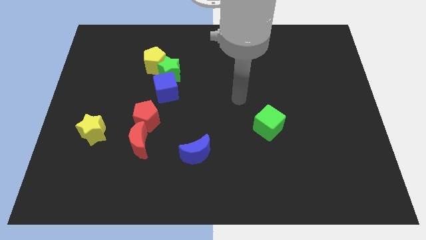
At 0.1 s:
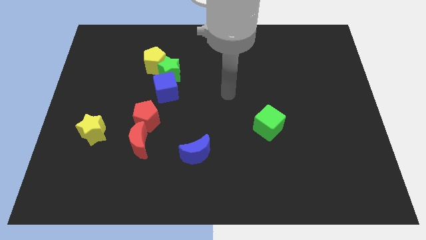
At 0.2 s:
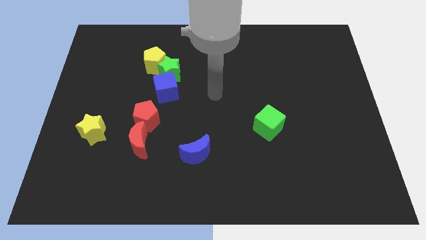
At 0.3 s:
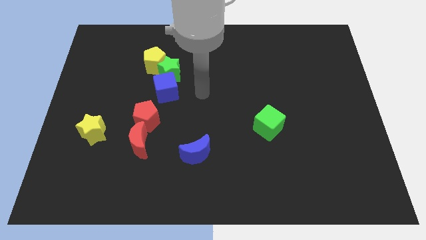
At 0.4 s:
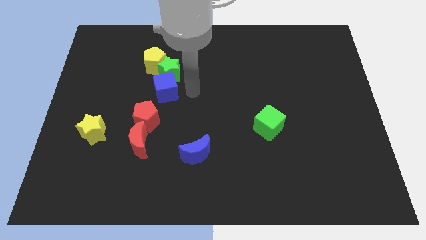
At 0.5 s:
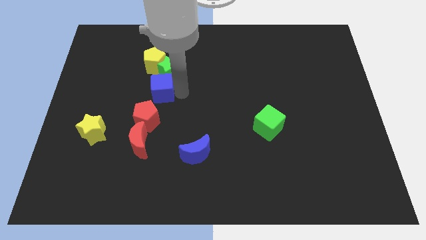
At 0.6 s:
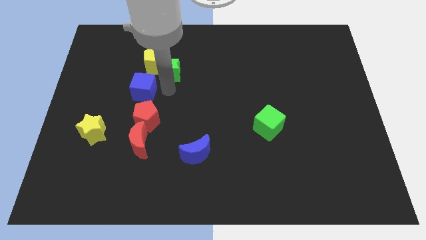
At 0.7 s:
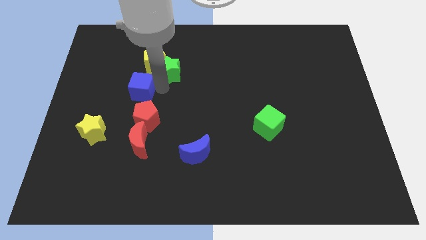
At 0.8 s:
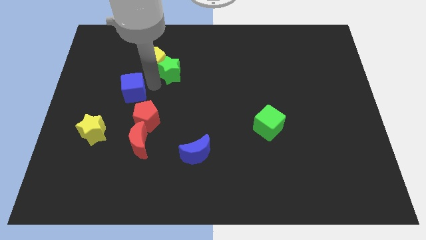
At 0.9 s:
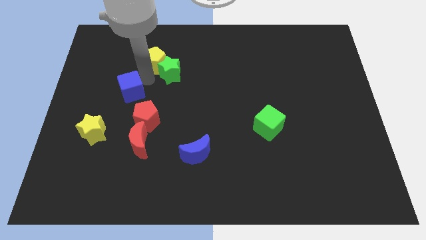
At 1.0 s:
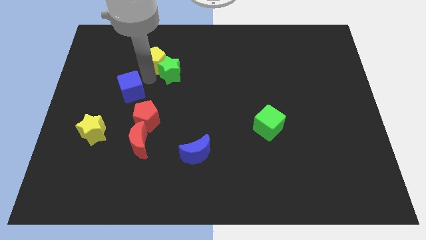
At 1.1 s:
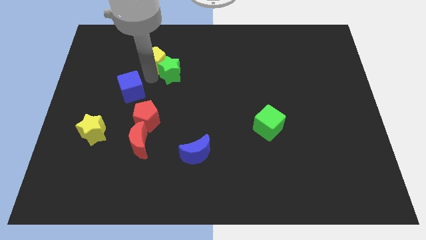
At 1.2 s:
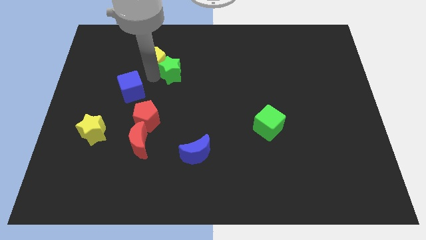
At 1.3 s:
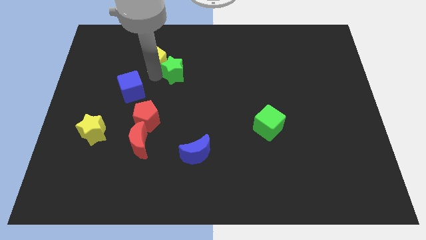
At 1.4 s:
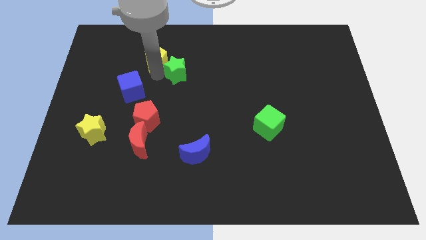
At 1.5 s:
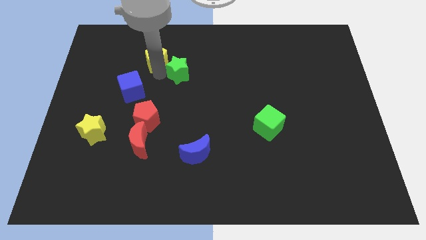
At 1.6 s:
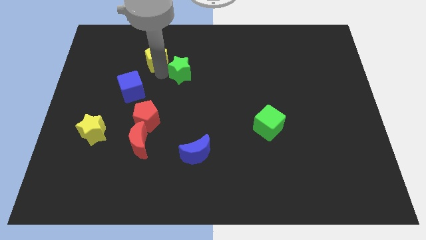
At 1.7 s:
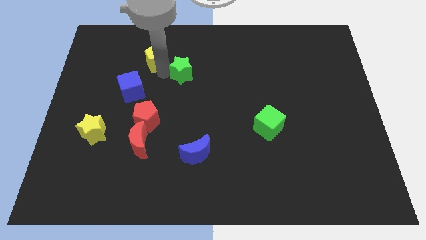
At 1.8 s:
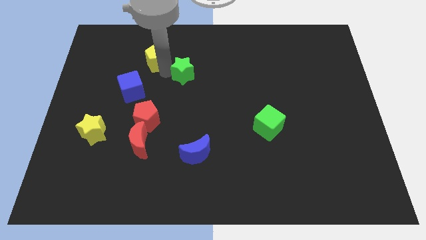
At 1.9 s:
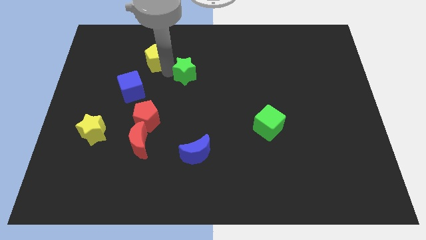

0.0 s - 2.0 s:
move the green star away from the yellow pentagon and blue cube

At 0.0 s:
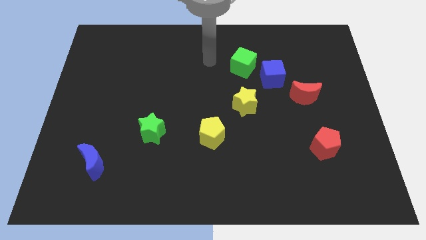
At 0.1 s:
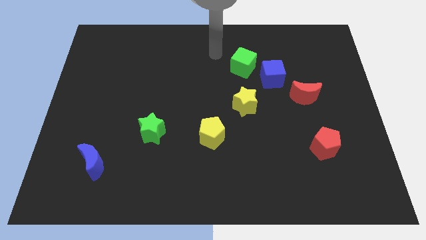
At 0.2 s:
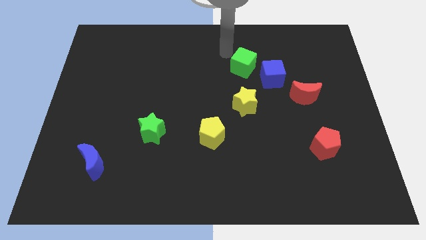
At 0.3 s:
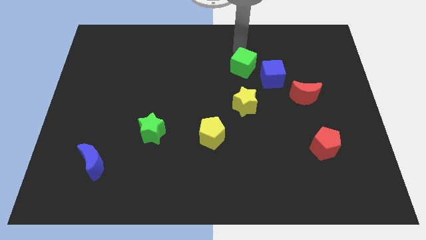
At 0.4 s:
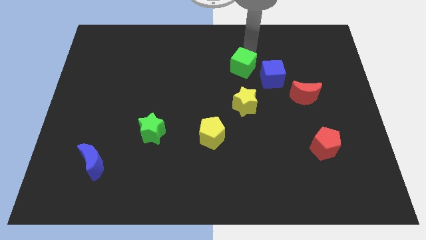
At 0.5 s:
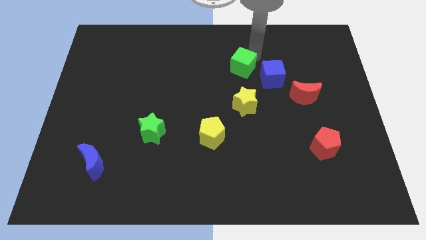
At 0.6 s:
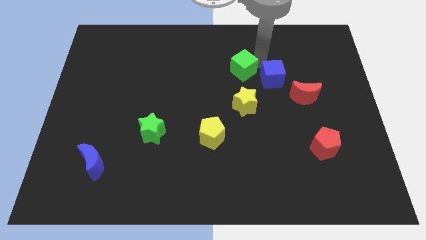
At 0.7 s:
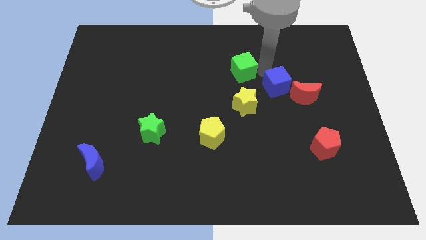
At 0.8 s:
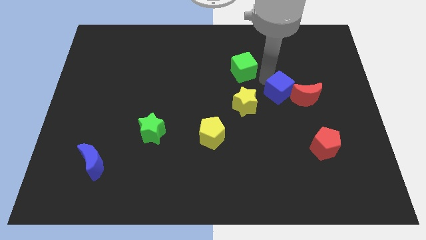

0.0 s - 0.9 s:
move the green cube away from the blue cube

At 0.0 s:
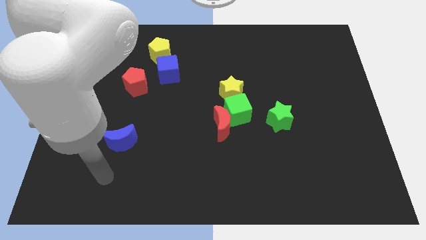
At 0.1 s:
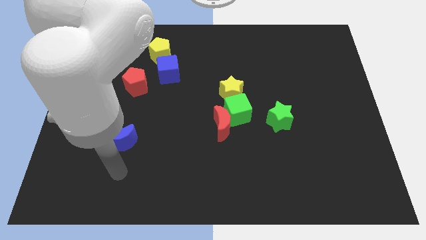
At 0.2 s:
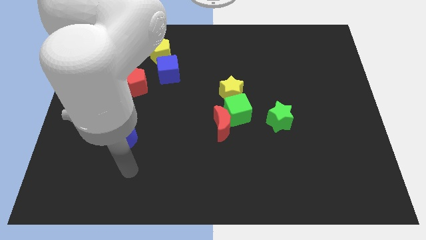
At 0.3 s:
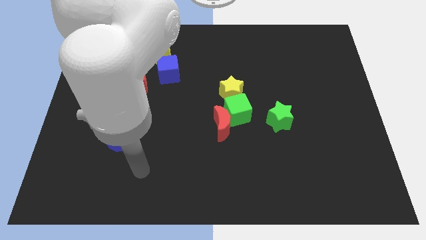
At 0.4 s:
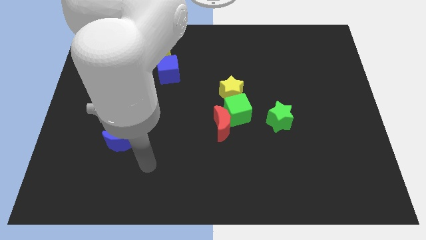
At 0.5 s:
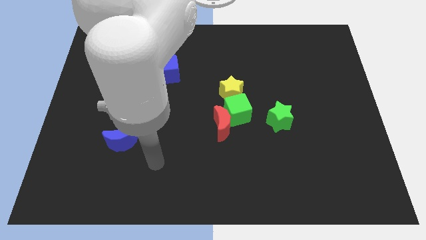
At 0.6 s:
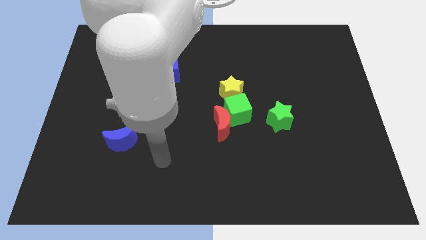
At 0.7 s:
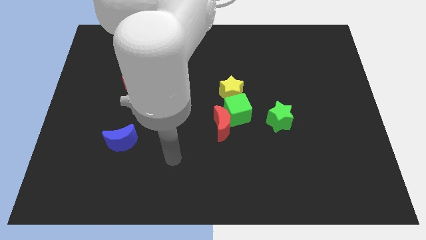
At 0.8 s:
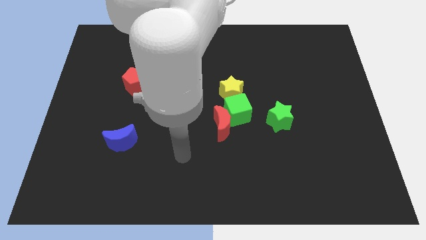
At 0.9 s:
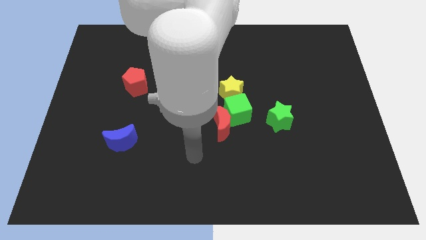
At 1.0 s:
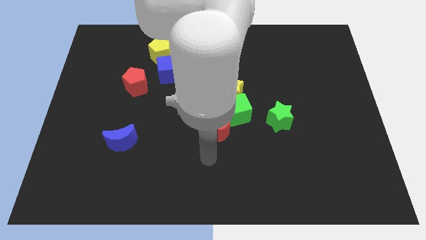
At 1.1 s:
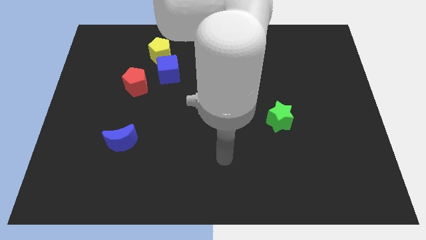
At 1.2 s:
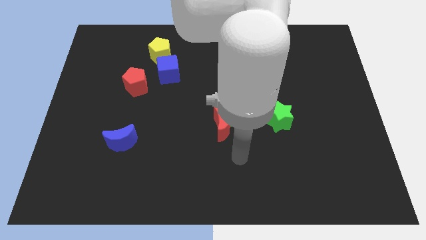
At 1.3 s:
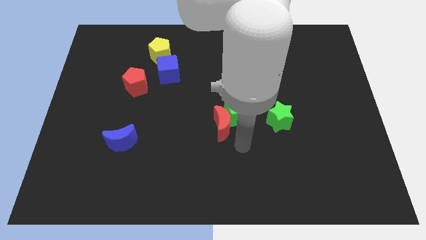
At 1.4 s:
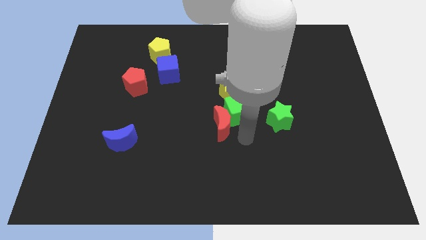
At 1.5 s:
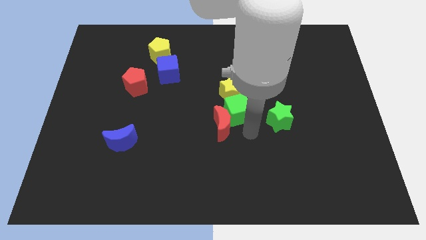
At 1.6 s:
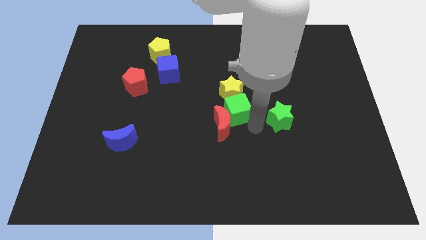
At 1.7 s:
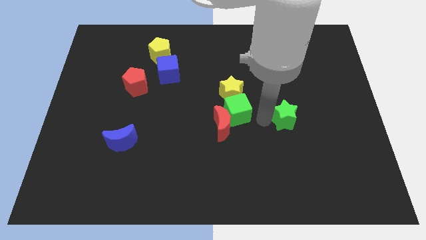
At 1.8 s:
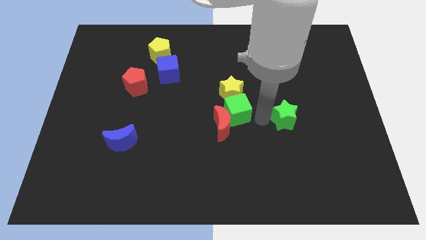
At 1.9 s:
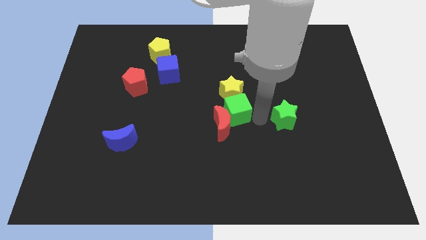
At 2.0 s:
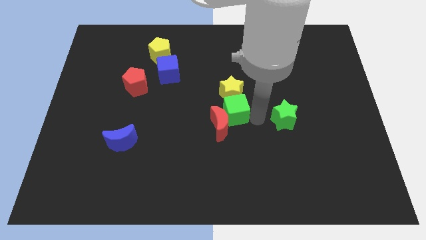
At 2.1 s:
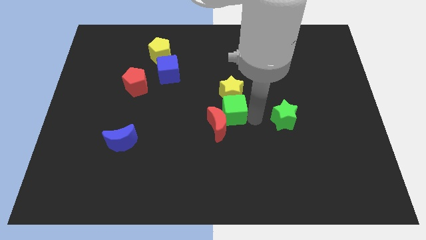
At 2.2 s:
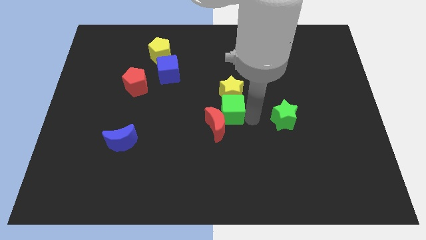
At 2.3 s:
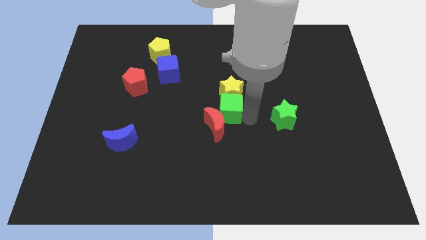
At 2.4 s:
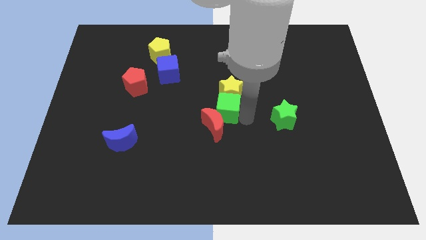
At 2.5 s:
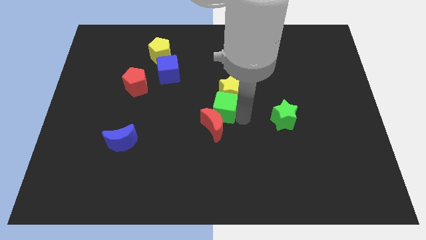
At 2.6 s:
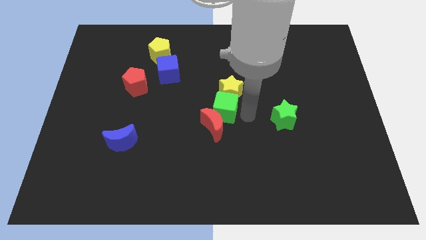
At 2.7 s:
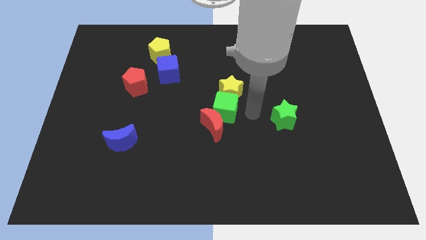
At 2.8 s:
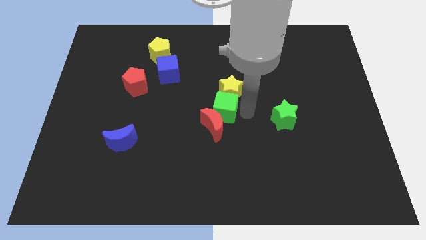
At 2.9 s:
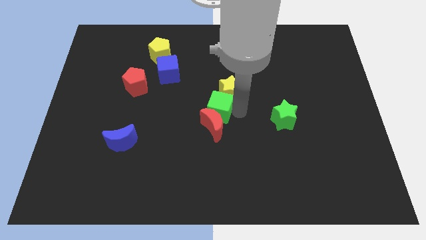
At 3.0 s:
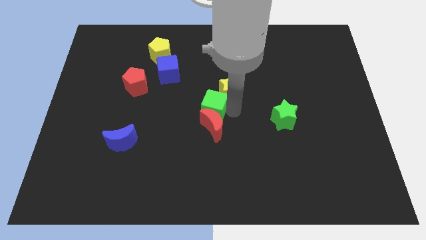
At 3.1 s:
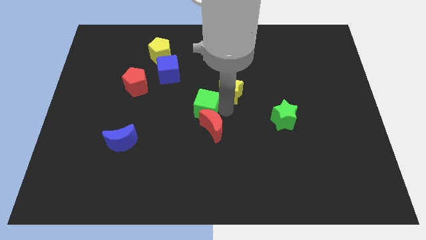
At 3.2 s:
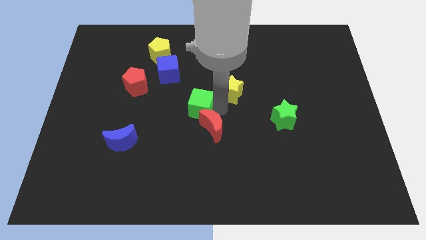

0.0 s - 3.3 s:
separate the green cube from the red moon, yellow star, and green star

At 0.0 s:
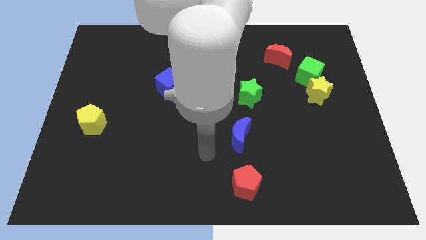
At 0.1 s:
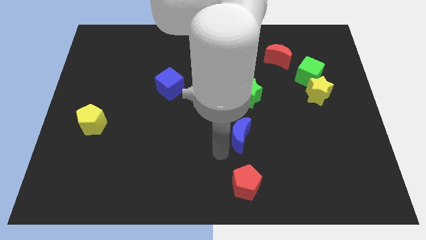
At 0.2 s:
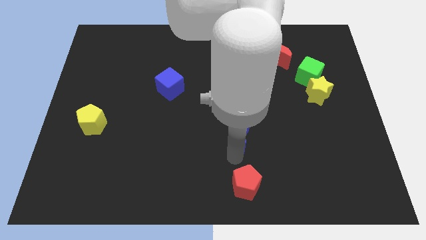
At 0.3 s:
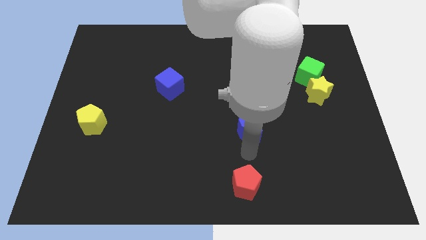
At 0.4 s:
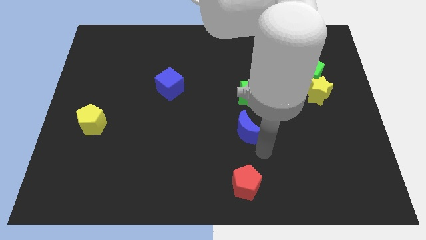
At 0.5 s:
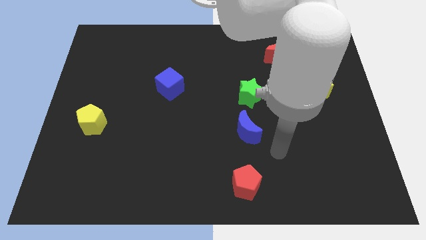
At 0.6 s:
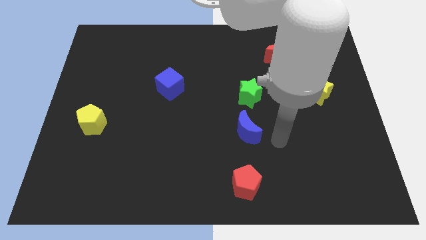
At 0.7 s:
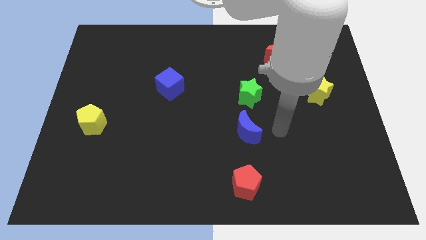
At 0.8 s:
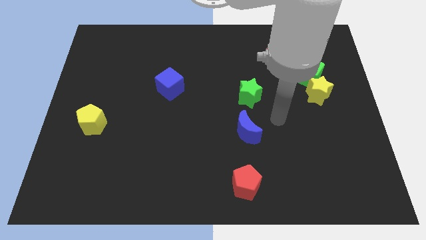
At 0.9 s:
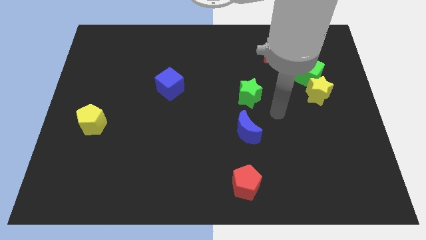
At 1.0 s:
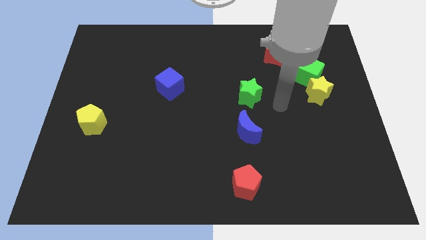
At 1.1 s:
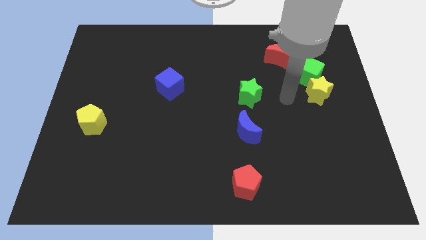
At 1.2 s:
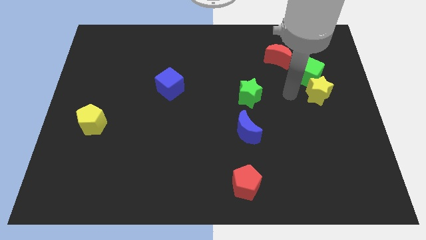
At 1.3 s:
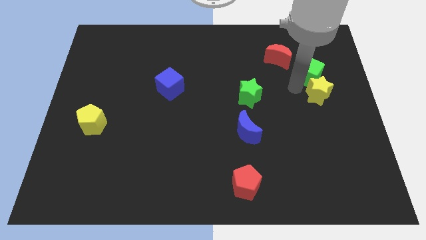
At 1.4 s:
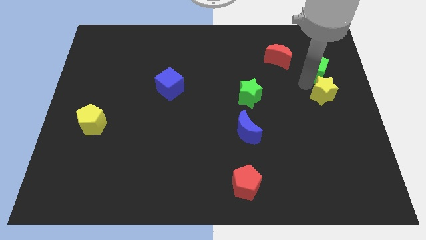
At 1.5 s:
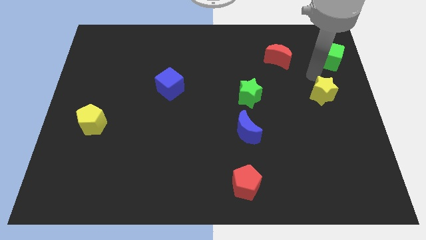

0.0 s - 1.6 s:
move the yellow star away from the green cube

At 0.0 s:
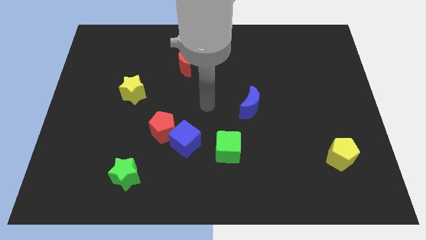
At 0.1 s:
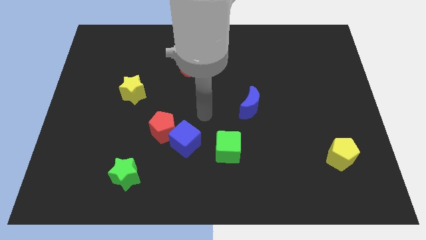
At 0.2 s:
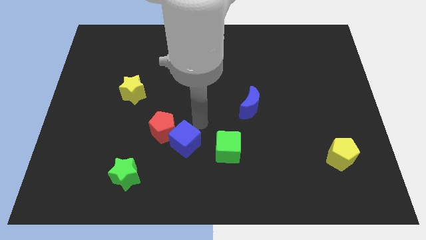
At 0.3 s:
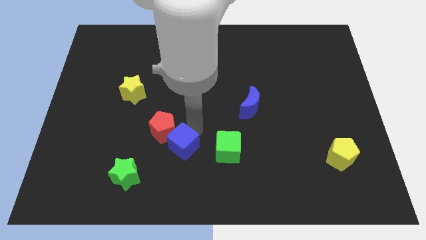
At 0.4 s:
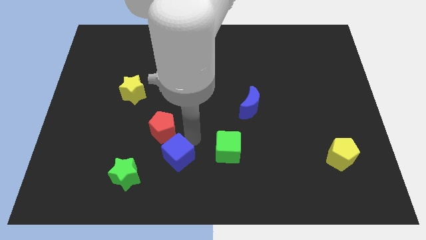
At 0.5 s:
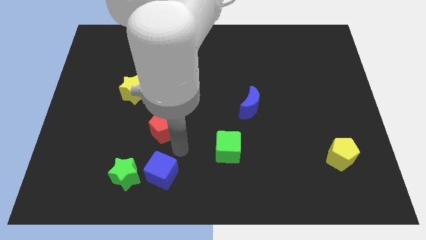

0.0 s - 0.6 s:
pull the red pentagon apart from the blue cube

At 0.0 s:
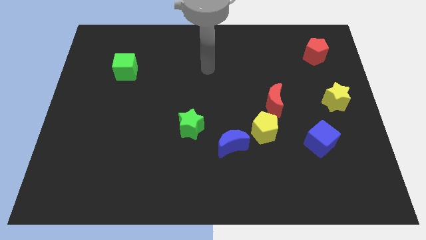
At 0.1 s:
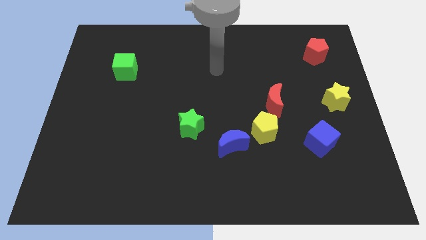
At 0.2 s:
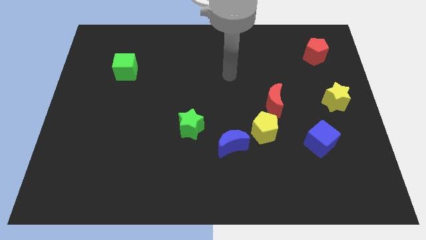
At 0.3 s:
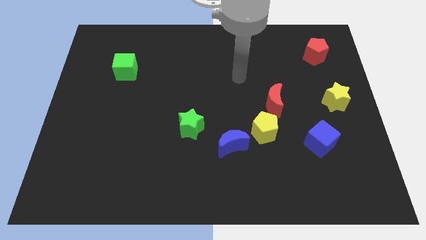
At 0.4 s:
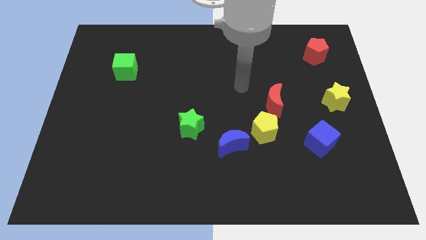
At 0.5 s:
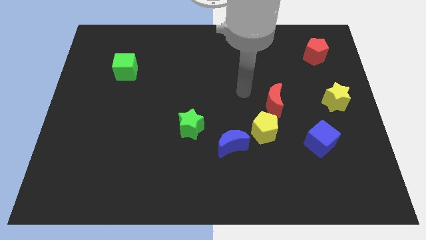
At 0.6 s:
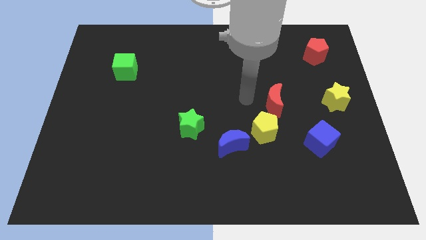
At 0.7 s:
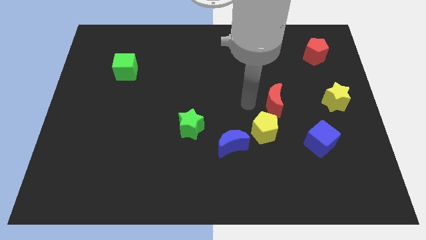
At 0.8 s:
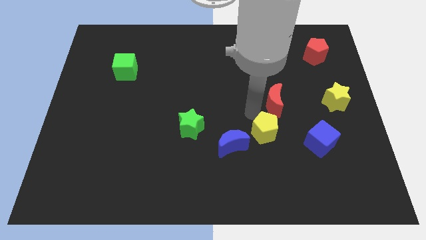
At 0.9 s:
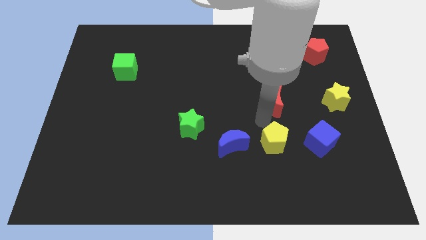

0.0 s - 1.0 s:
pull the red moon apart from the yellow pentagon
